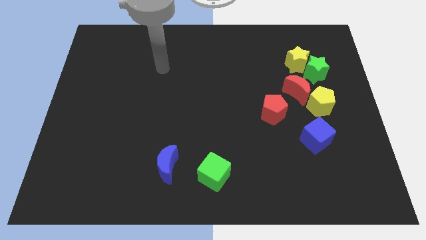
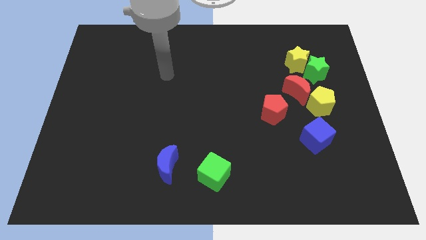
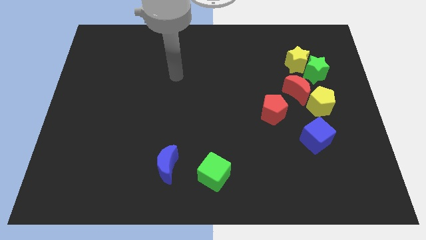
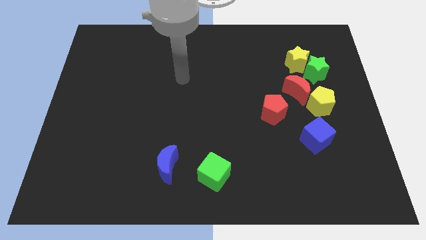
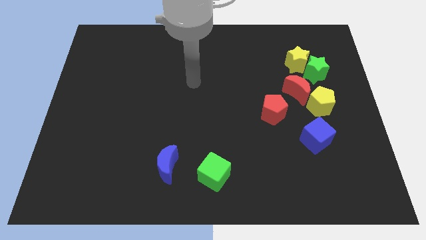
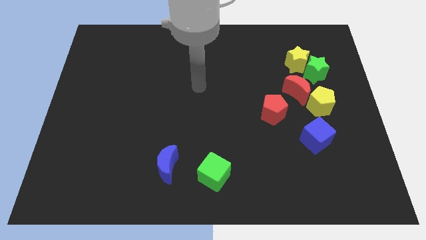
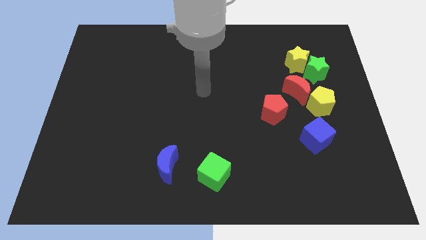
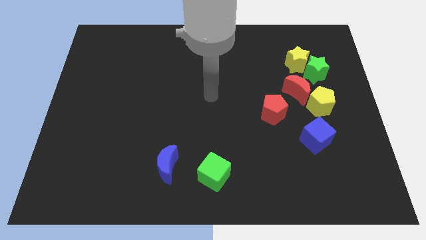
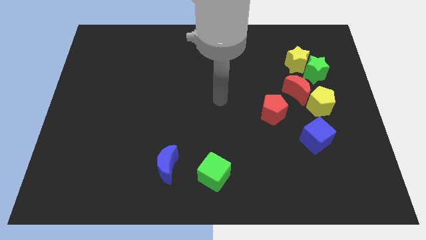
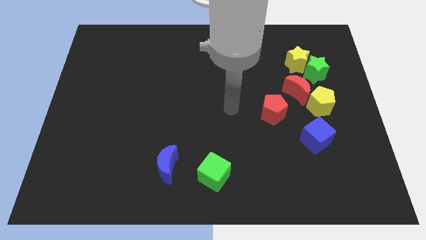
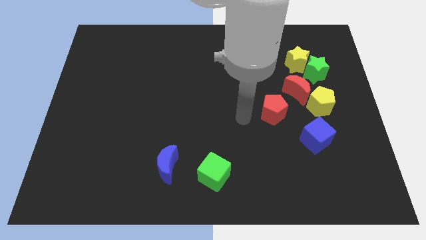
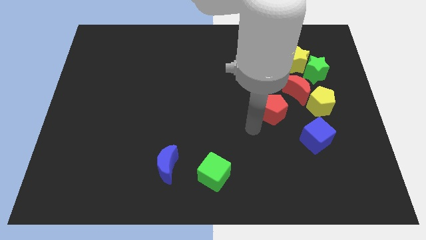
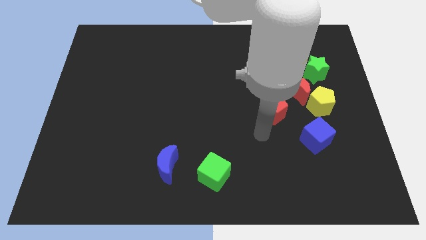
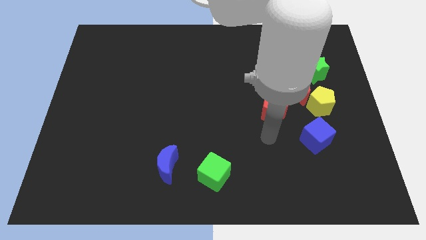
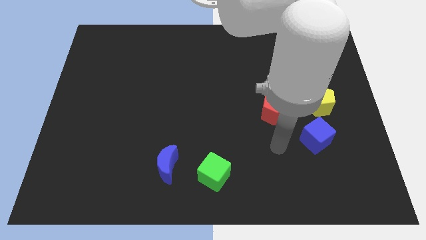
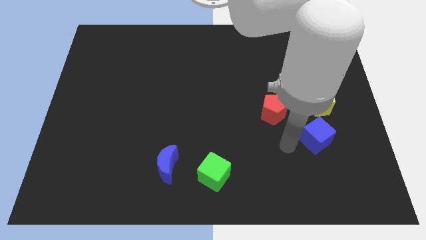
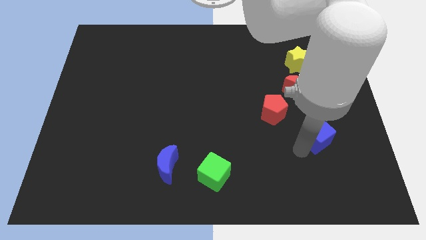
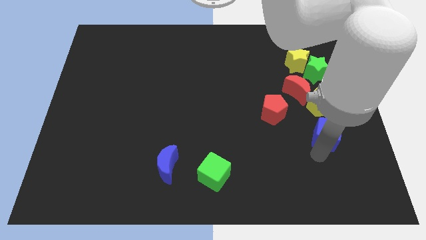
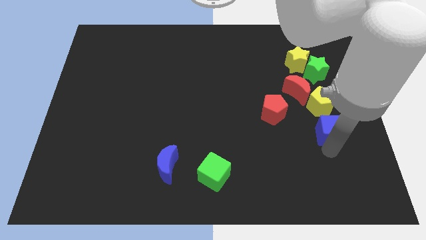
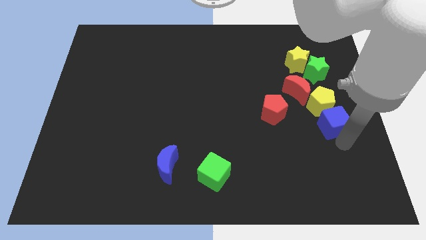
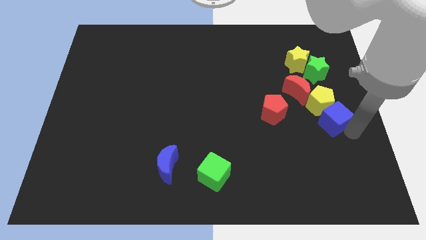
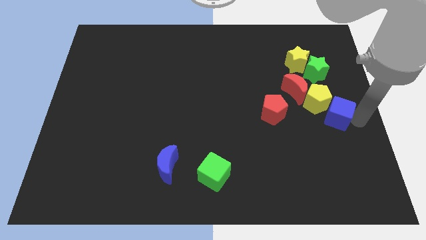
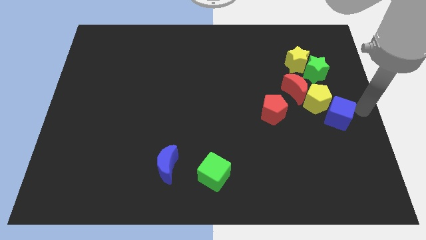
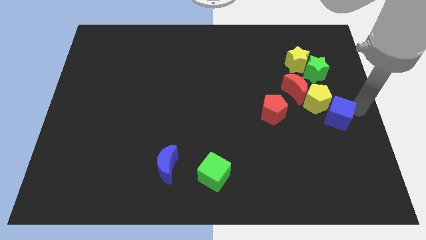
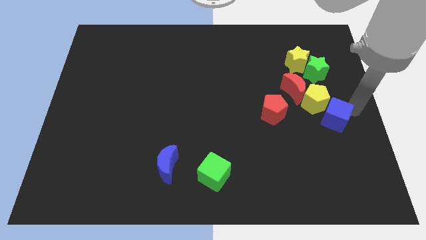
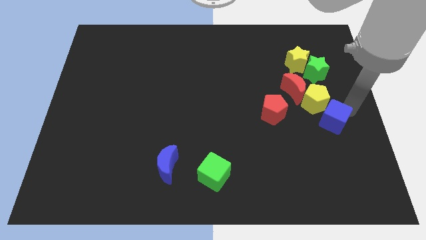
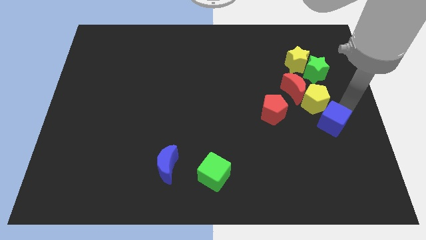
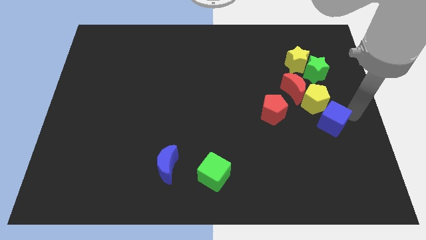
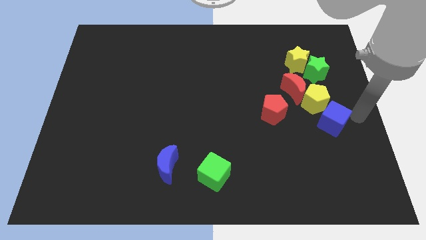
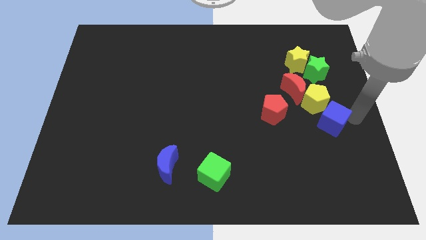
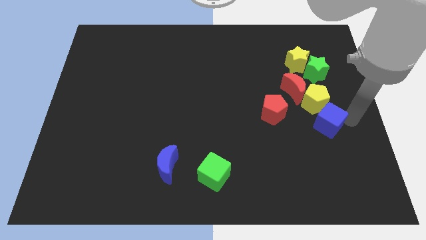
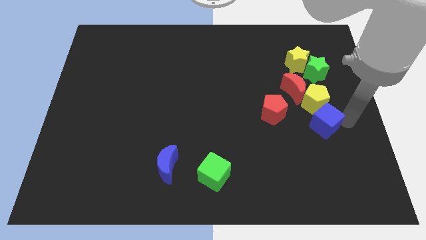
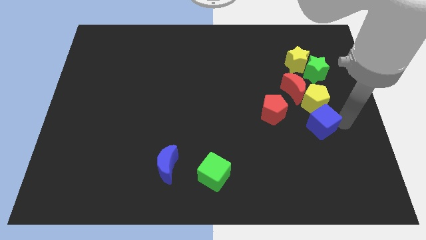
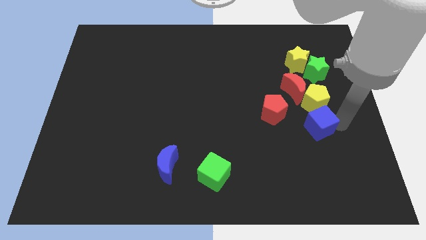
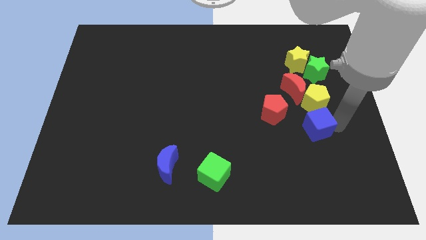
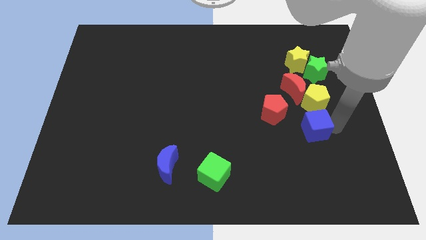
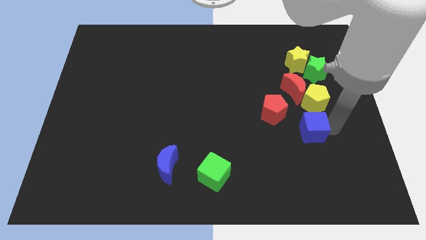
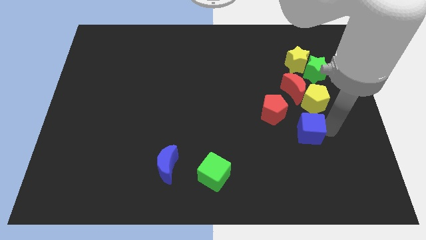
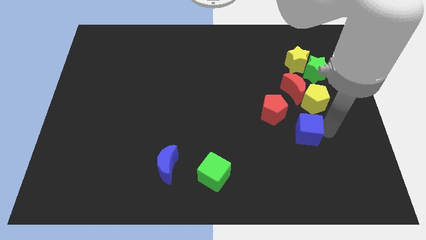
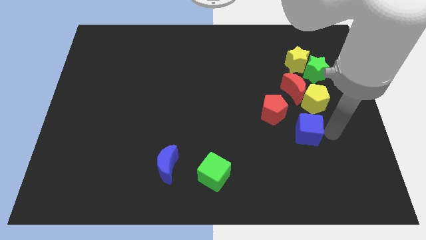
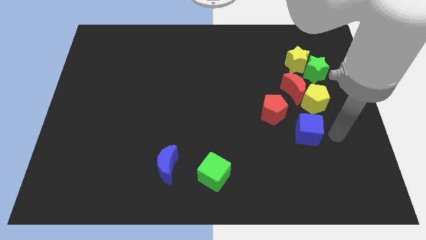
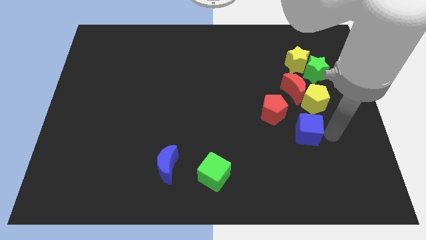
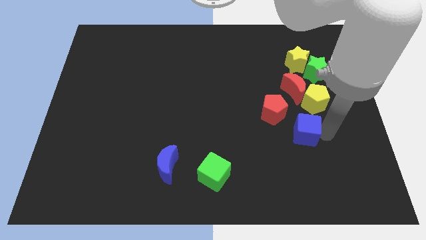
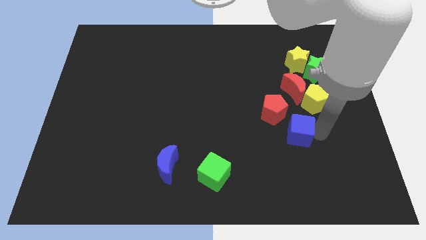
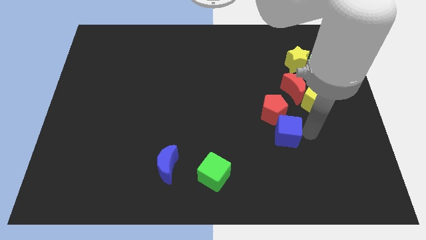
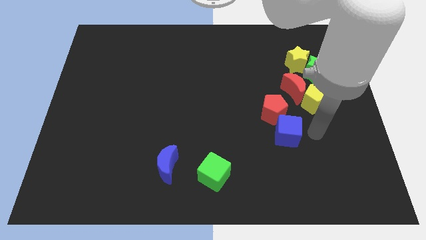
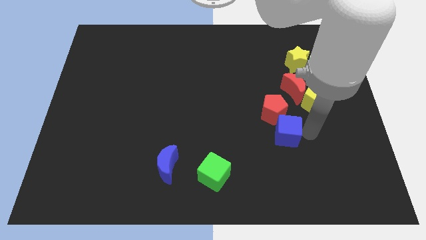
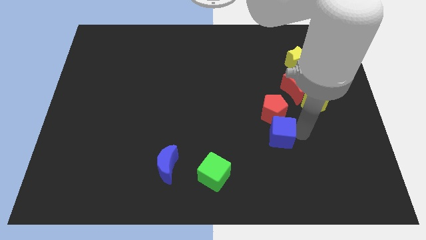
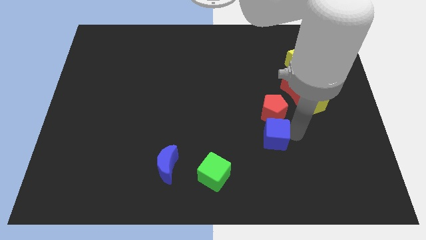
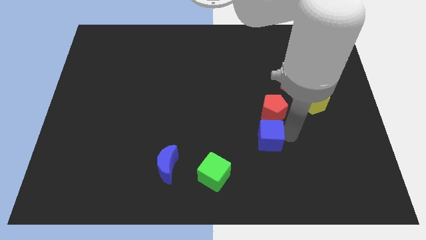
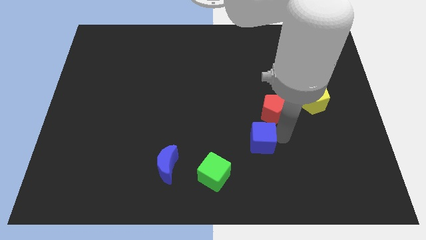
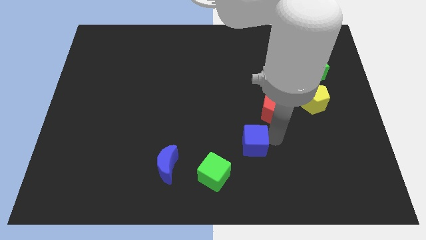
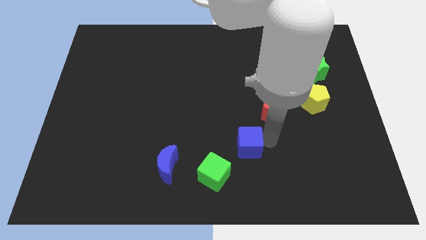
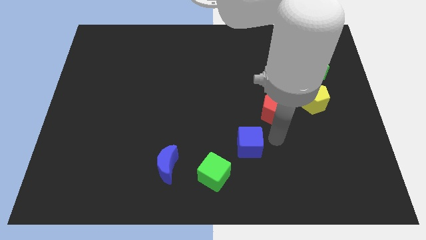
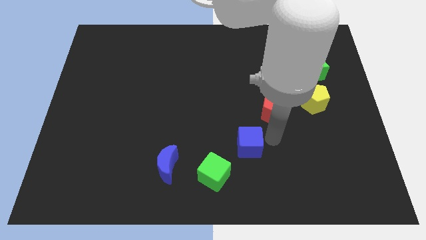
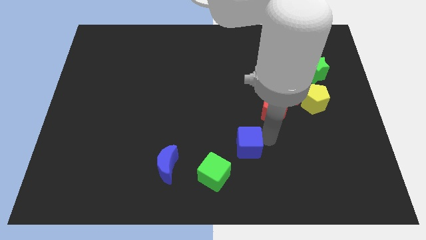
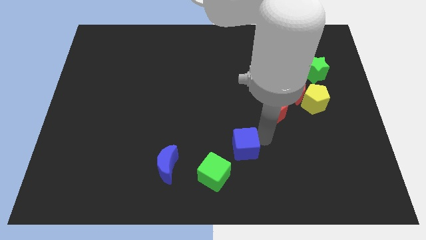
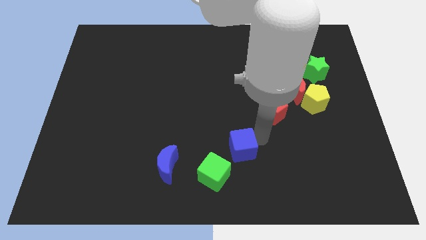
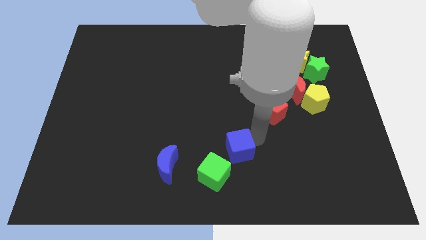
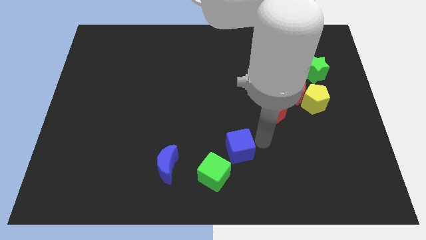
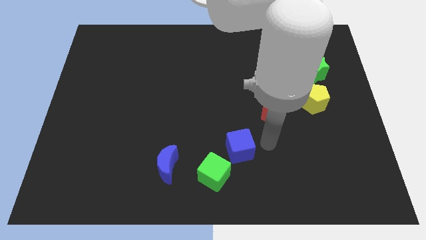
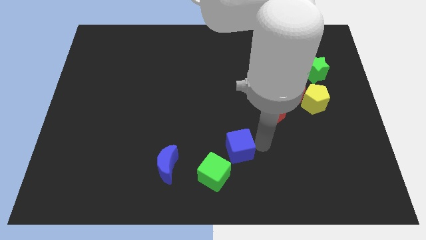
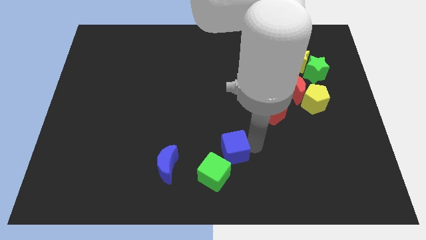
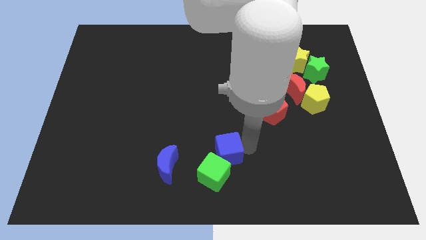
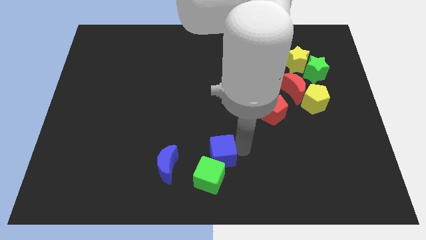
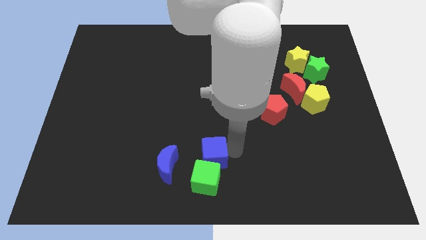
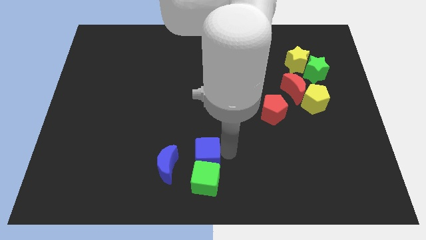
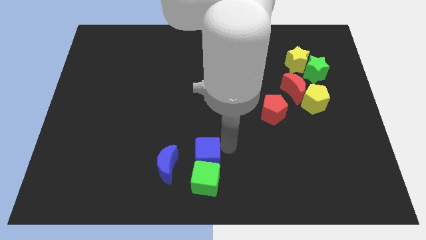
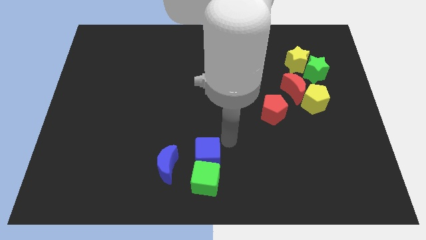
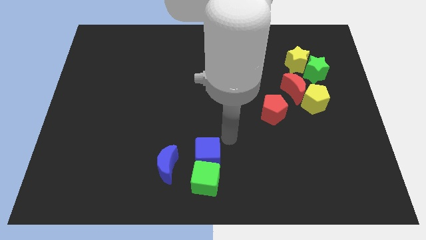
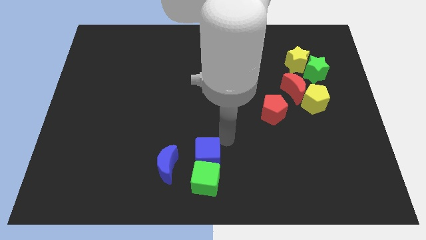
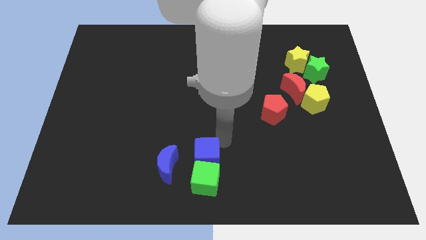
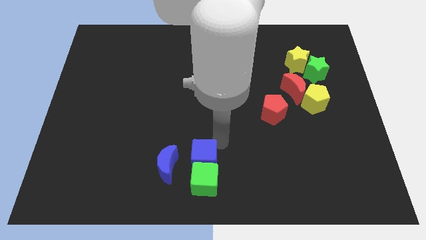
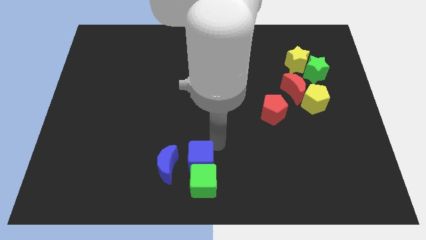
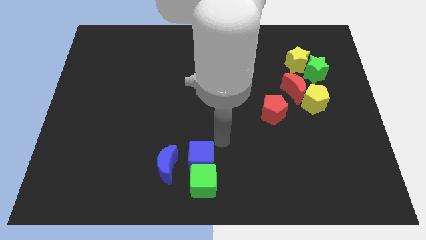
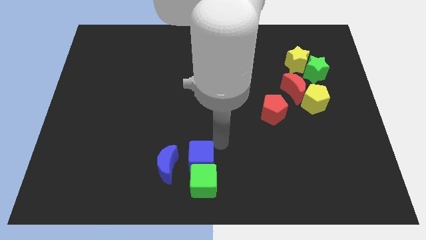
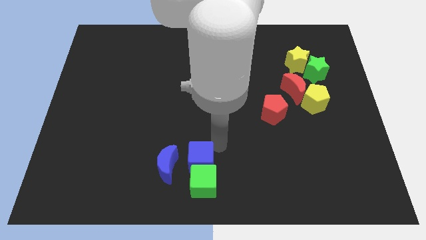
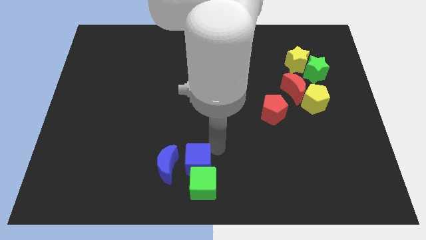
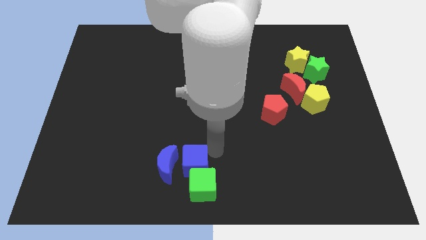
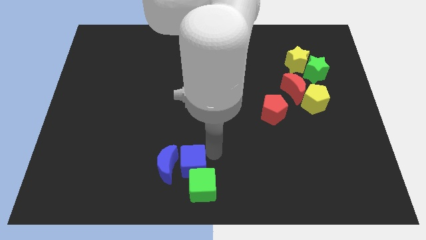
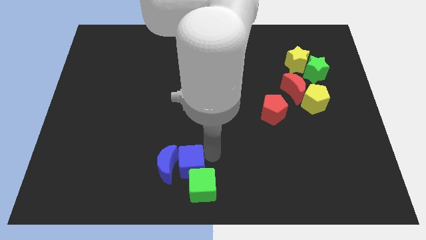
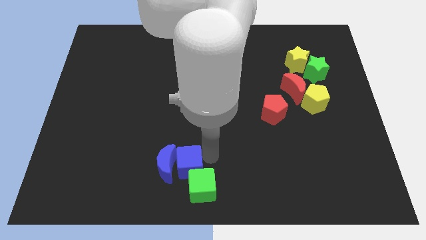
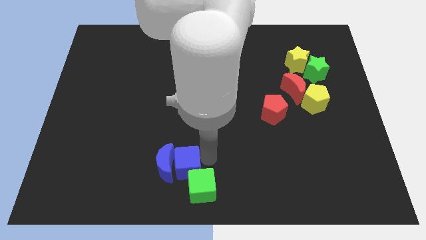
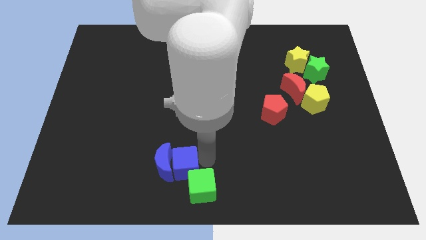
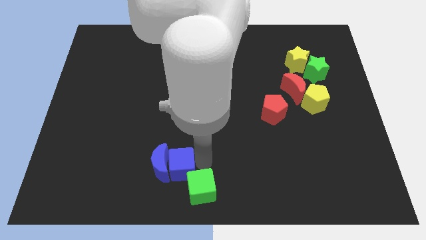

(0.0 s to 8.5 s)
push the blue cube just left of the green cube

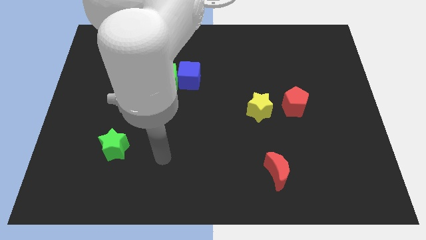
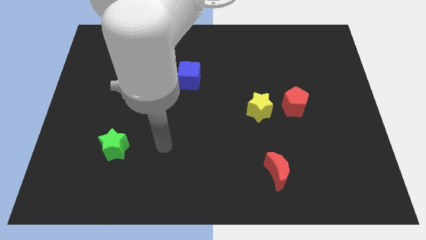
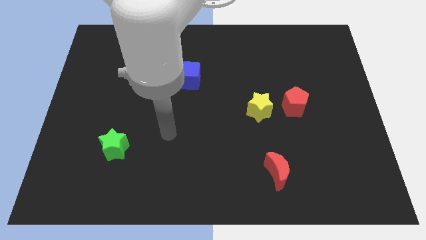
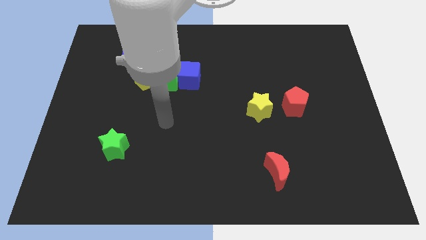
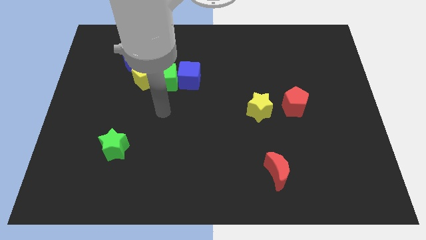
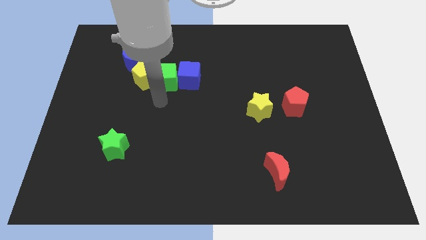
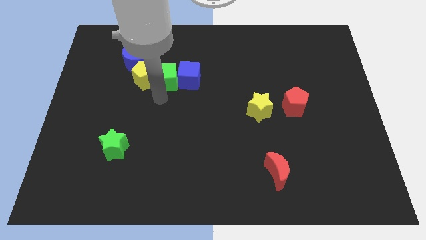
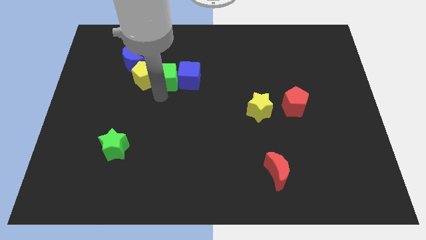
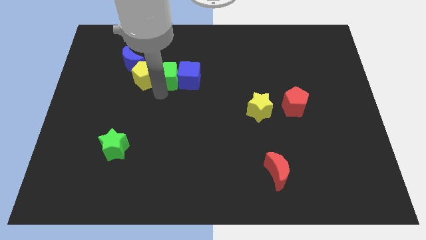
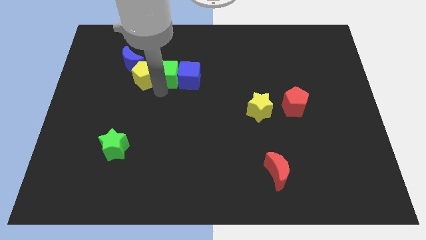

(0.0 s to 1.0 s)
push the green cube to the right side of the blue moon
